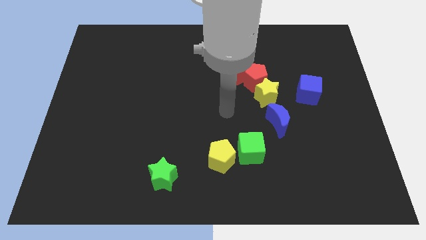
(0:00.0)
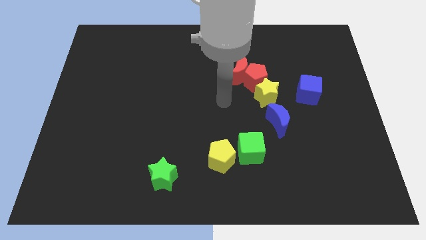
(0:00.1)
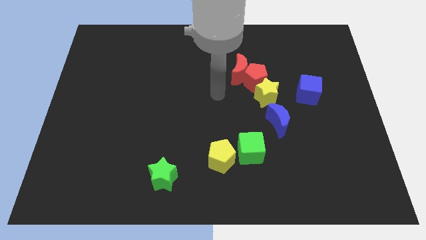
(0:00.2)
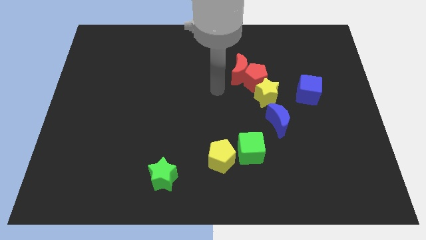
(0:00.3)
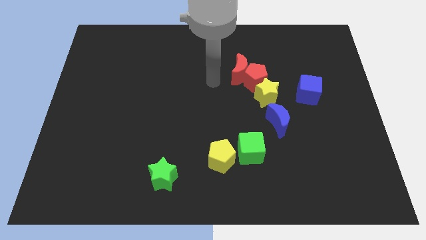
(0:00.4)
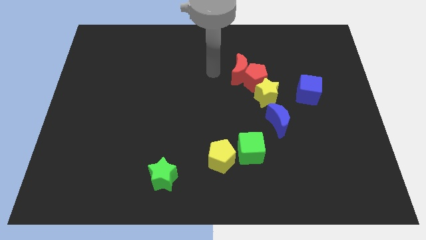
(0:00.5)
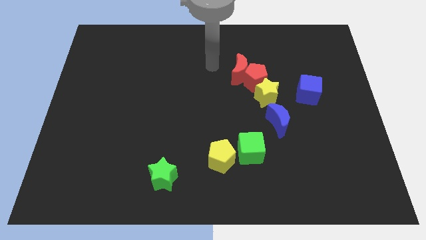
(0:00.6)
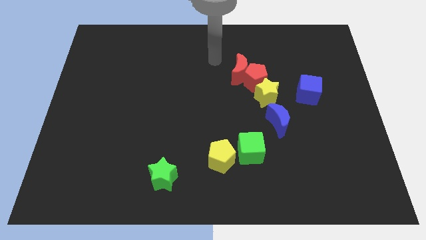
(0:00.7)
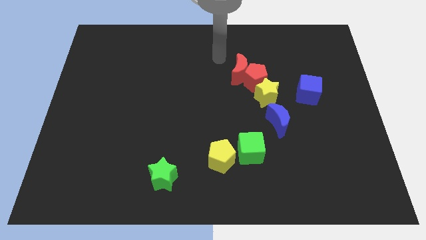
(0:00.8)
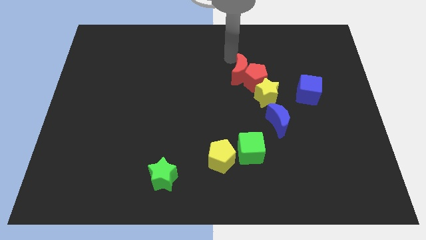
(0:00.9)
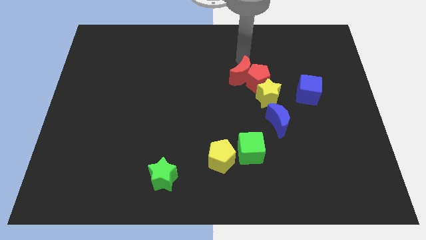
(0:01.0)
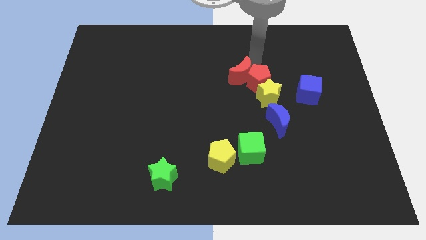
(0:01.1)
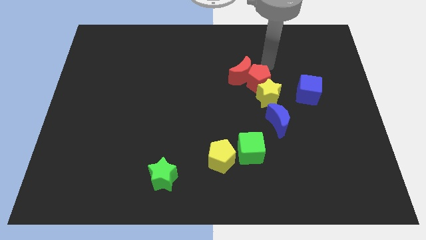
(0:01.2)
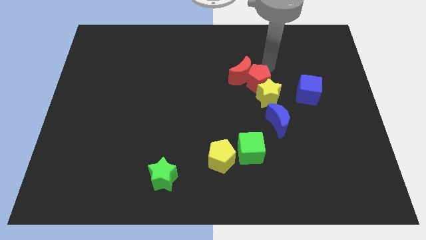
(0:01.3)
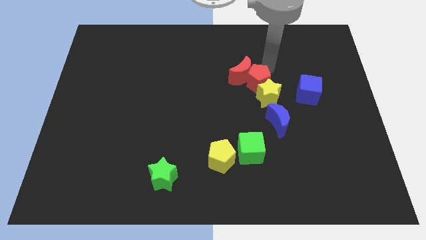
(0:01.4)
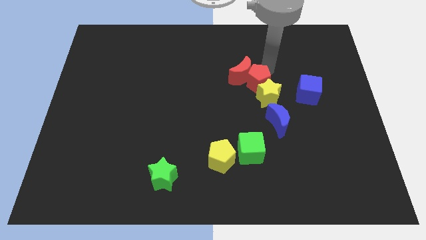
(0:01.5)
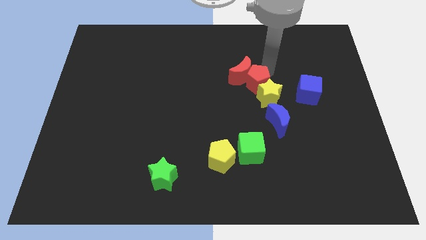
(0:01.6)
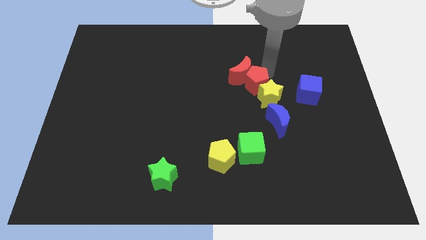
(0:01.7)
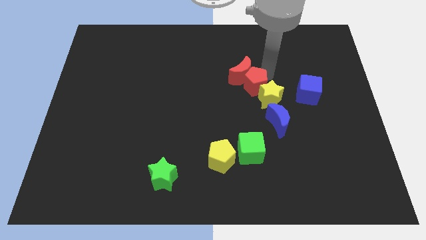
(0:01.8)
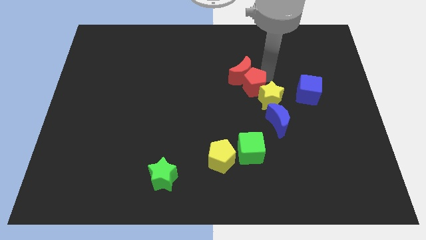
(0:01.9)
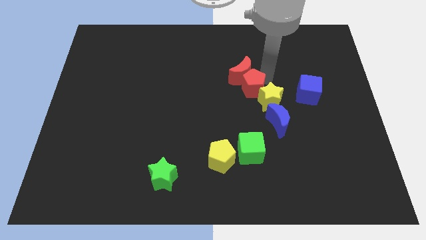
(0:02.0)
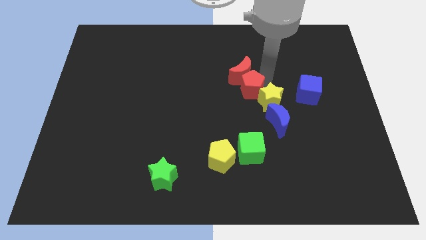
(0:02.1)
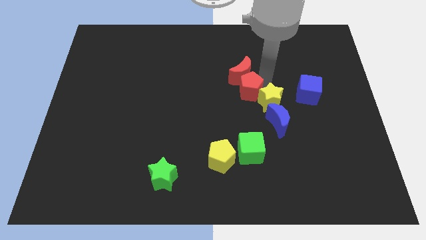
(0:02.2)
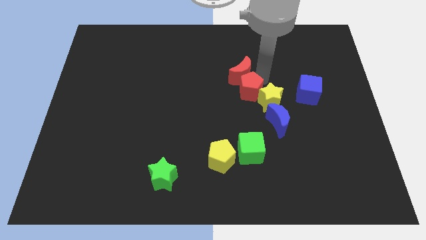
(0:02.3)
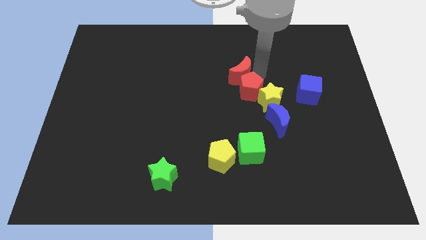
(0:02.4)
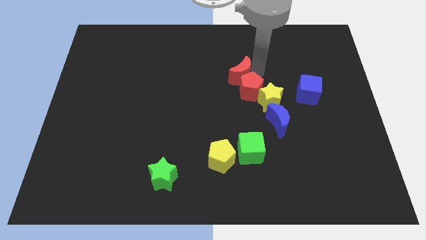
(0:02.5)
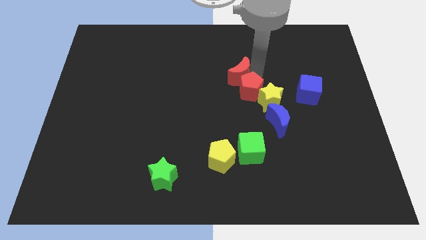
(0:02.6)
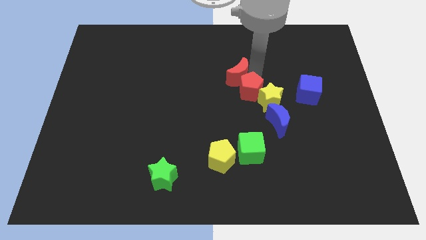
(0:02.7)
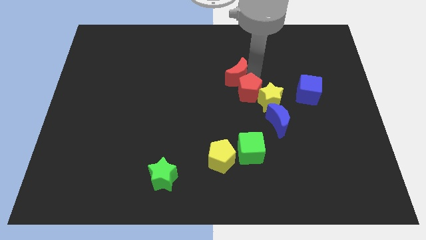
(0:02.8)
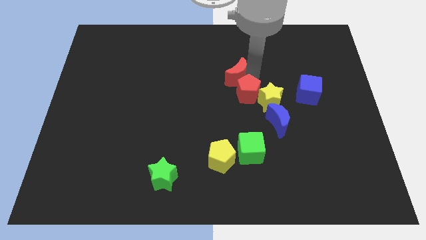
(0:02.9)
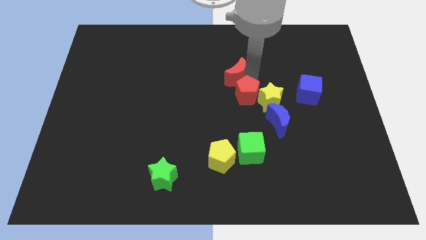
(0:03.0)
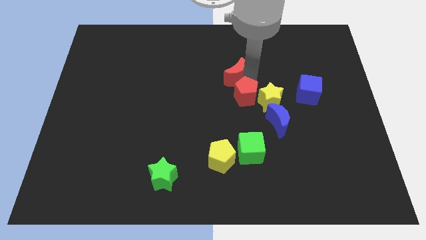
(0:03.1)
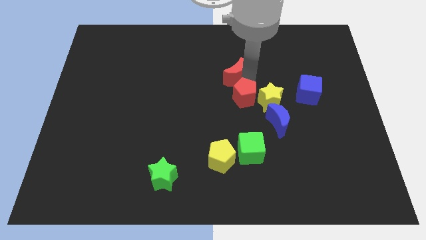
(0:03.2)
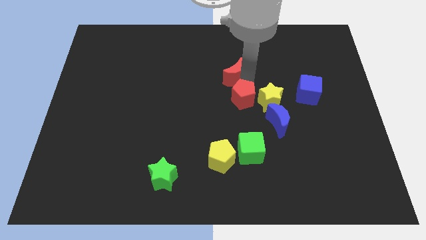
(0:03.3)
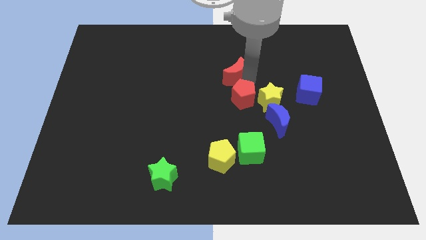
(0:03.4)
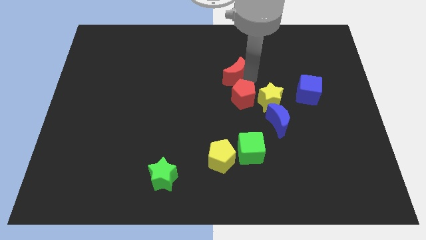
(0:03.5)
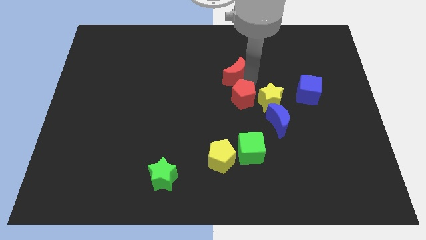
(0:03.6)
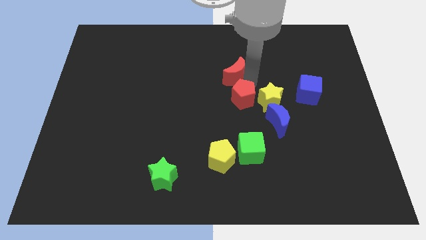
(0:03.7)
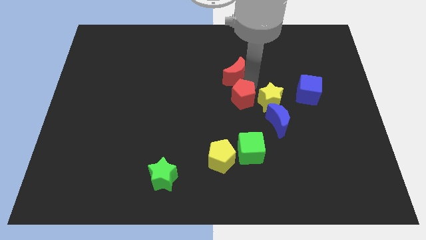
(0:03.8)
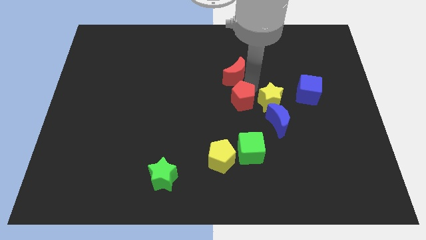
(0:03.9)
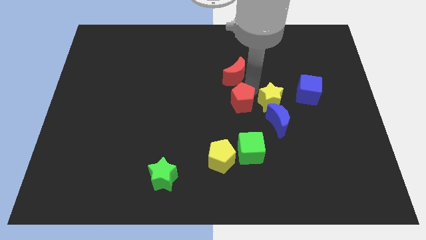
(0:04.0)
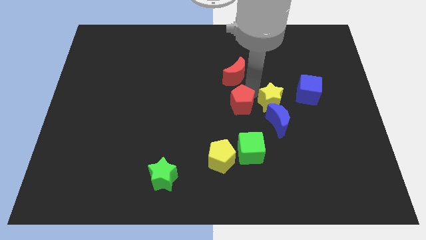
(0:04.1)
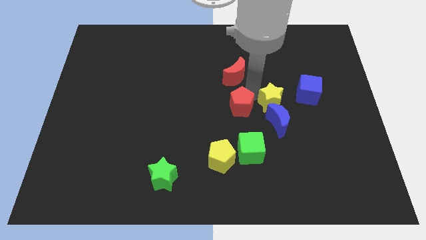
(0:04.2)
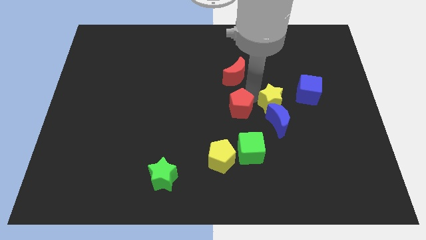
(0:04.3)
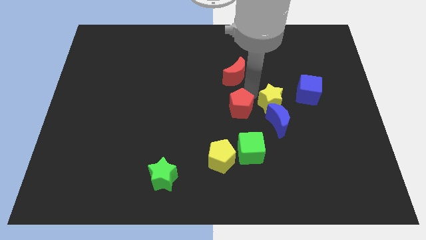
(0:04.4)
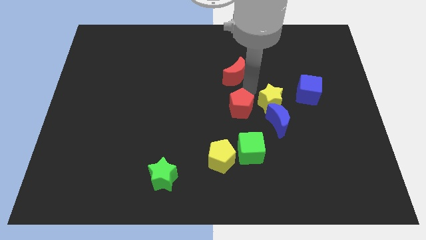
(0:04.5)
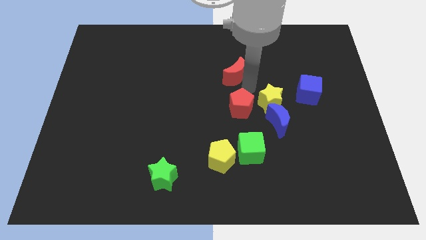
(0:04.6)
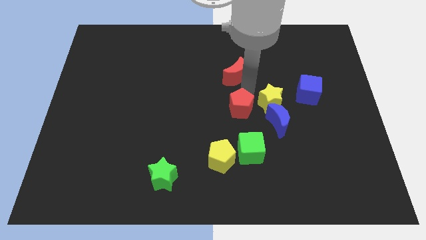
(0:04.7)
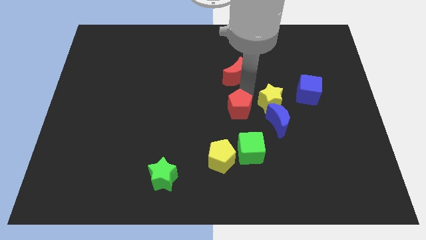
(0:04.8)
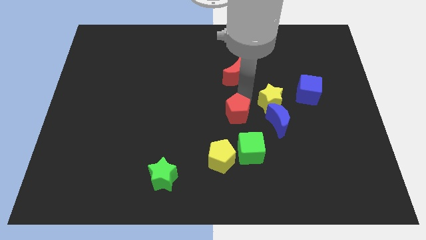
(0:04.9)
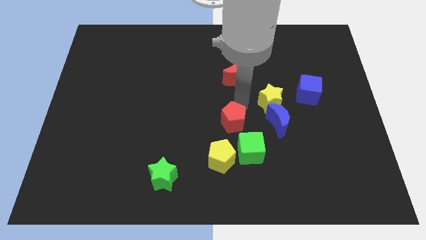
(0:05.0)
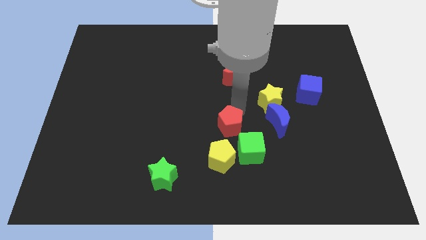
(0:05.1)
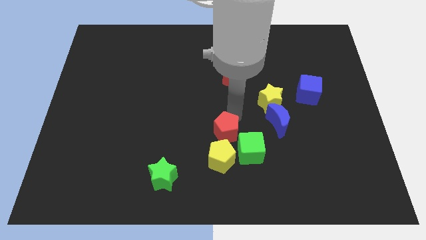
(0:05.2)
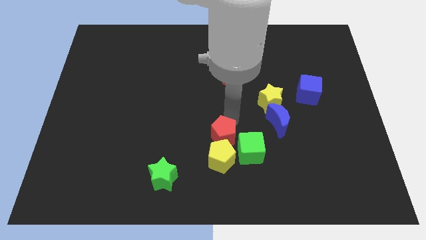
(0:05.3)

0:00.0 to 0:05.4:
move the red pentagon towards the yellow pentagon
